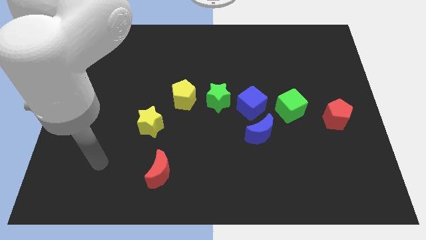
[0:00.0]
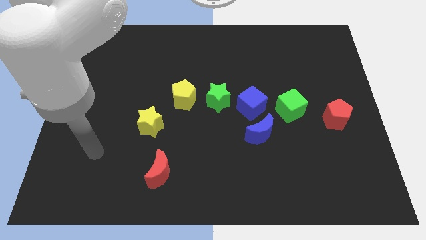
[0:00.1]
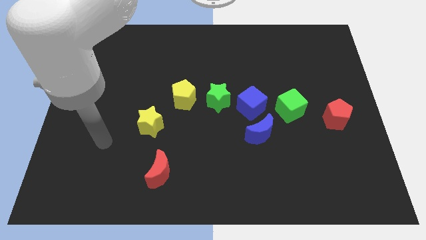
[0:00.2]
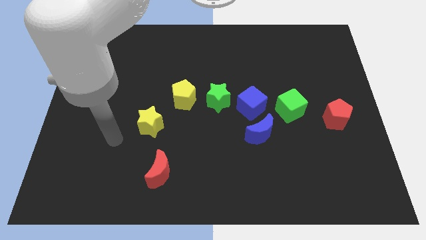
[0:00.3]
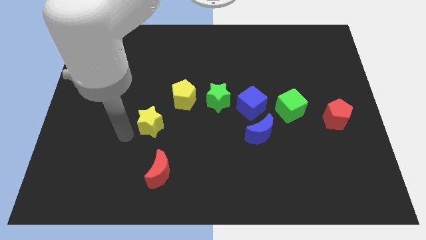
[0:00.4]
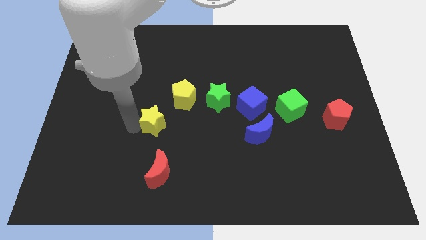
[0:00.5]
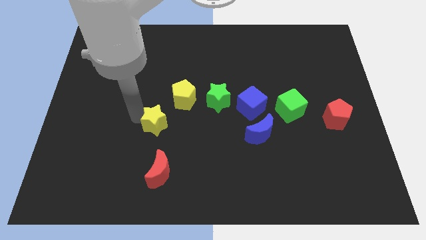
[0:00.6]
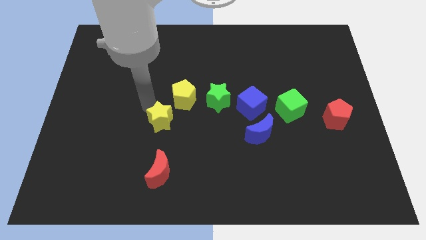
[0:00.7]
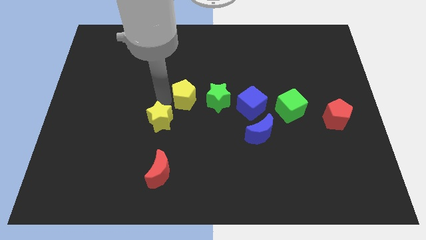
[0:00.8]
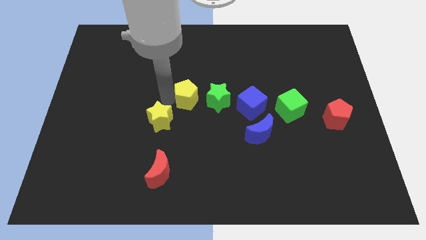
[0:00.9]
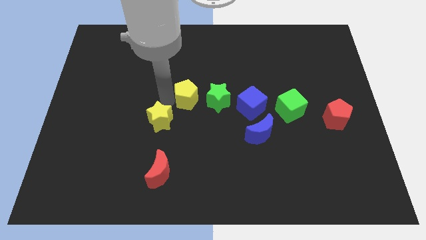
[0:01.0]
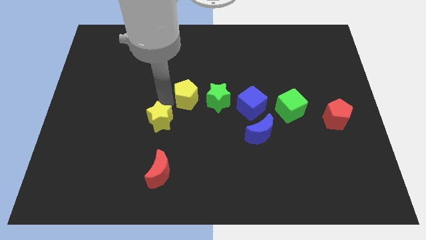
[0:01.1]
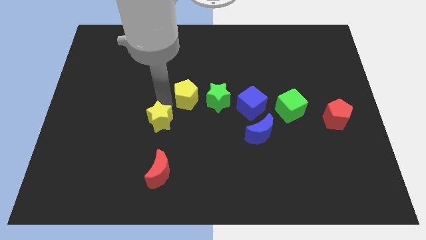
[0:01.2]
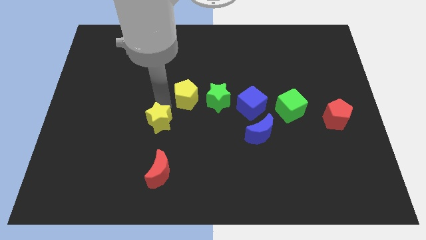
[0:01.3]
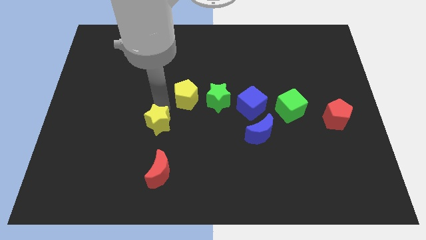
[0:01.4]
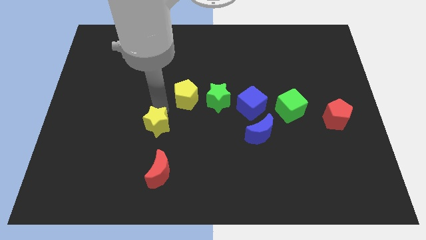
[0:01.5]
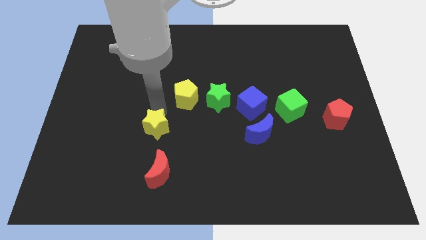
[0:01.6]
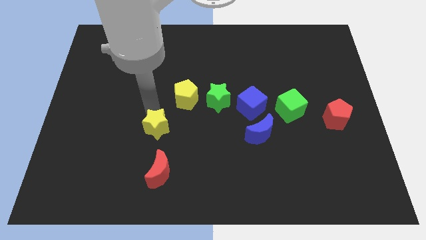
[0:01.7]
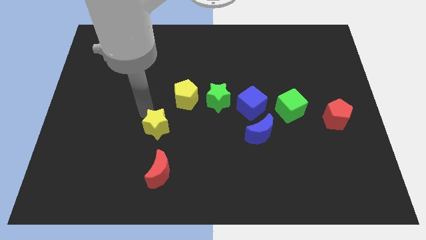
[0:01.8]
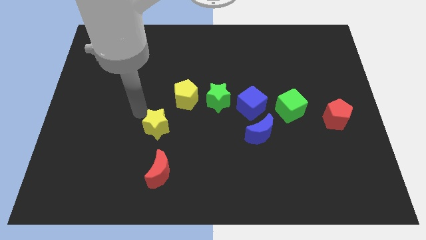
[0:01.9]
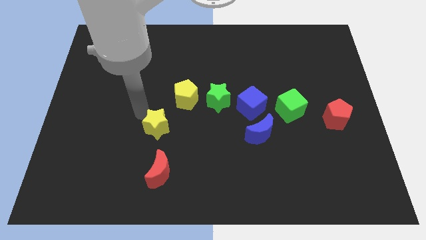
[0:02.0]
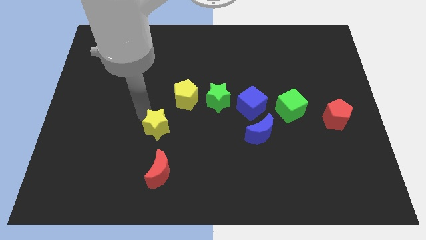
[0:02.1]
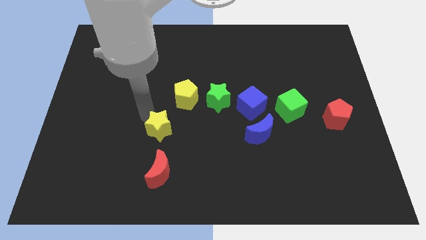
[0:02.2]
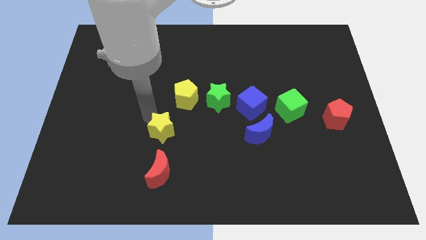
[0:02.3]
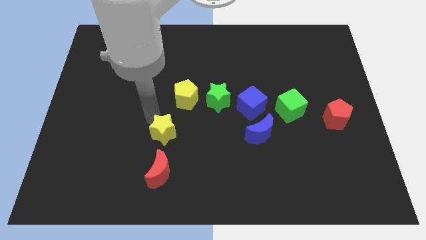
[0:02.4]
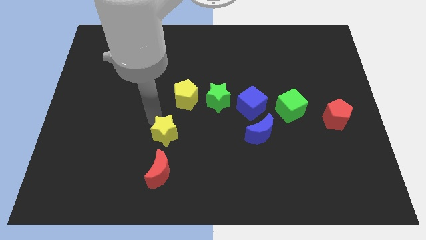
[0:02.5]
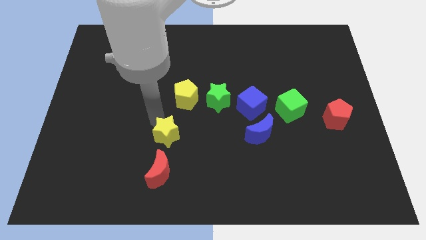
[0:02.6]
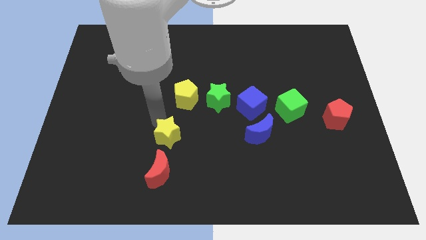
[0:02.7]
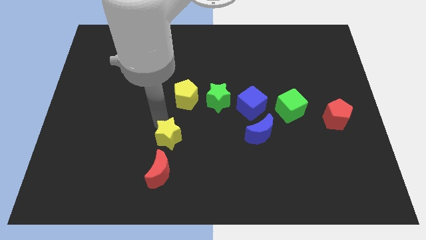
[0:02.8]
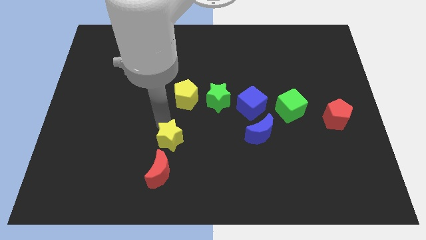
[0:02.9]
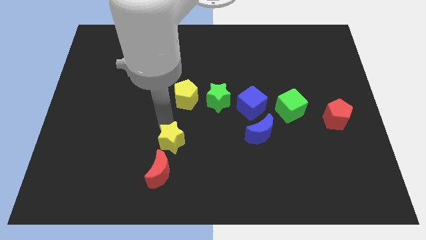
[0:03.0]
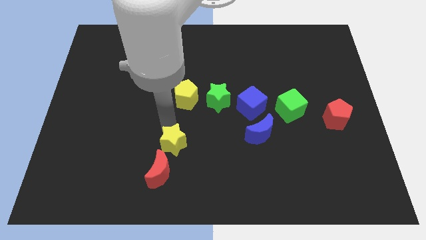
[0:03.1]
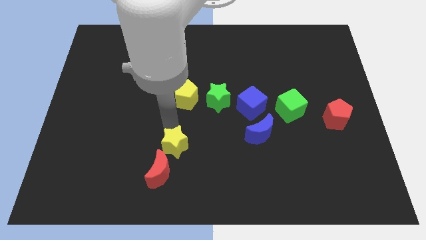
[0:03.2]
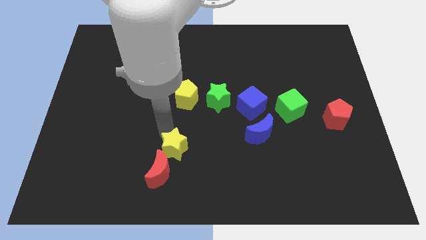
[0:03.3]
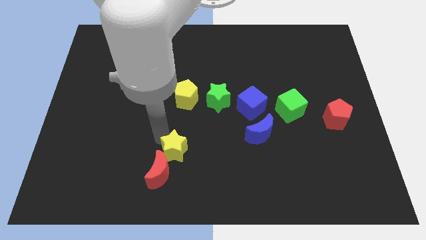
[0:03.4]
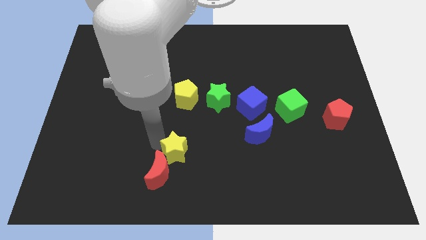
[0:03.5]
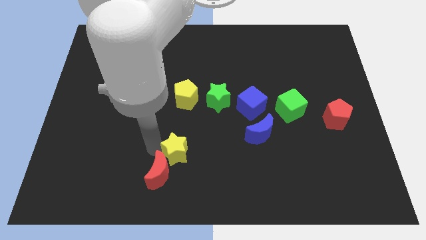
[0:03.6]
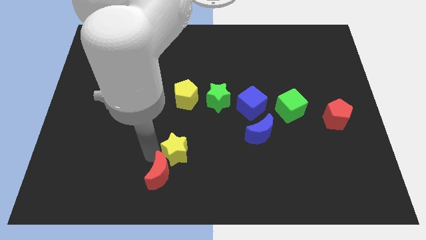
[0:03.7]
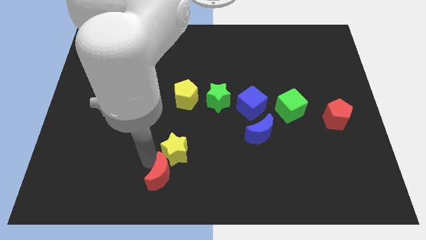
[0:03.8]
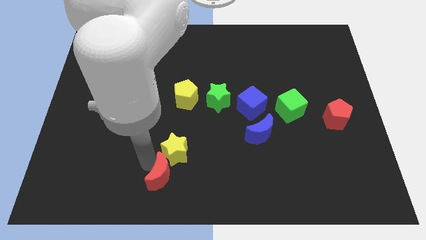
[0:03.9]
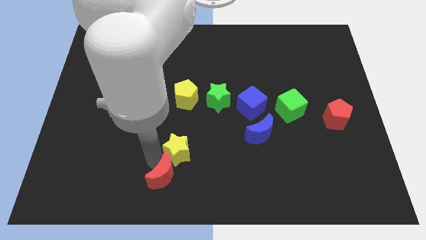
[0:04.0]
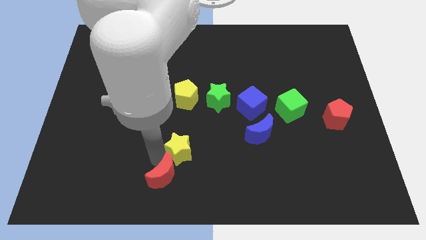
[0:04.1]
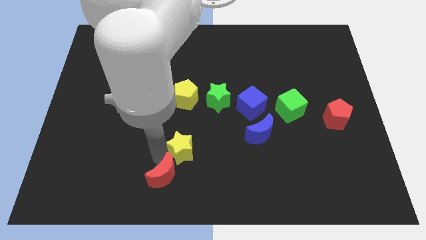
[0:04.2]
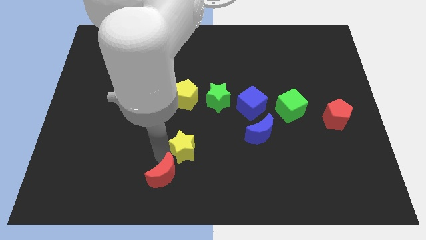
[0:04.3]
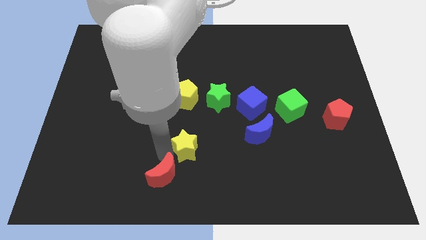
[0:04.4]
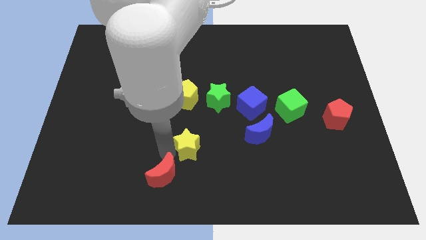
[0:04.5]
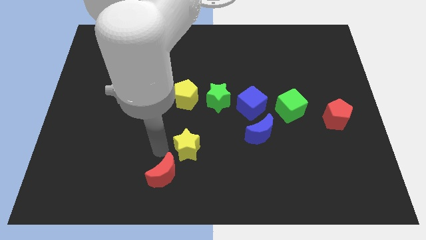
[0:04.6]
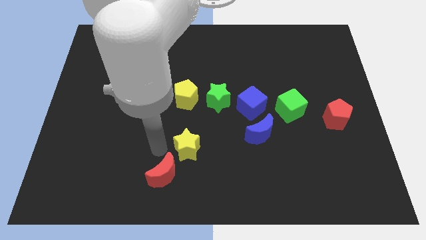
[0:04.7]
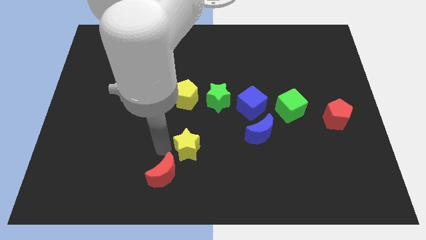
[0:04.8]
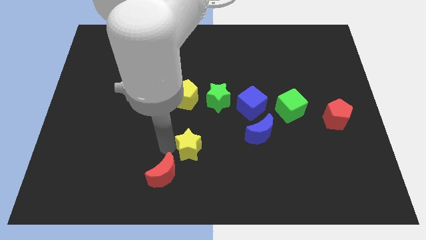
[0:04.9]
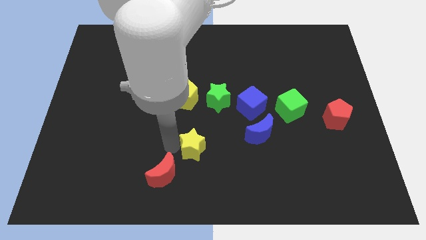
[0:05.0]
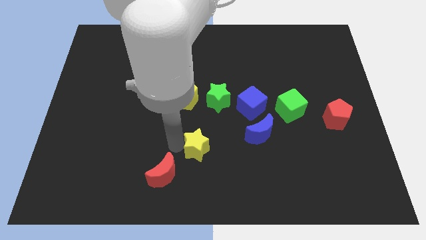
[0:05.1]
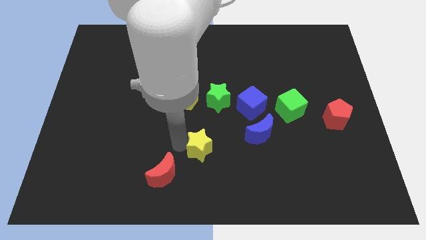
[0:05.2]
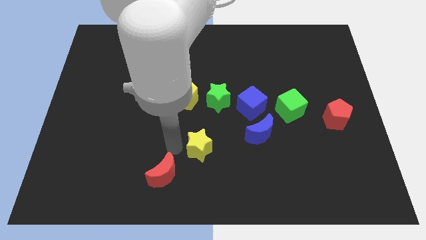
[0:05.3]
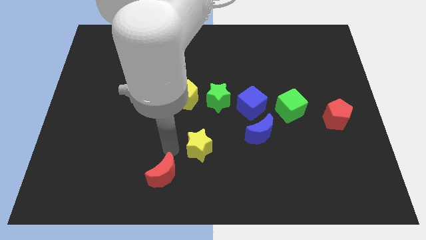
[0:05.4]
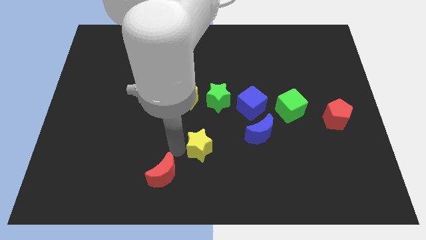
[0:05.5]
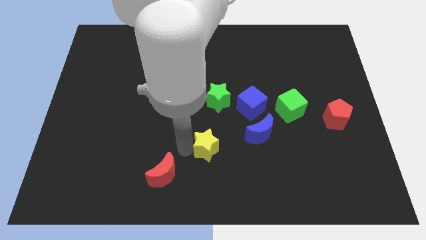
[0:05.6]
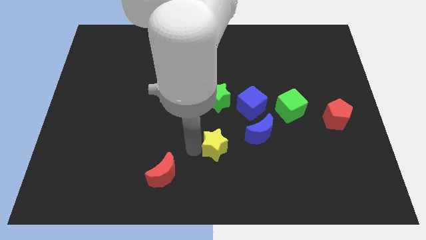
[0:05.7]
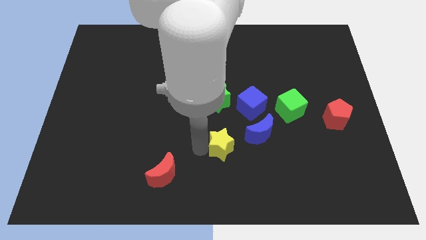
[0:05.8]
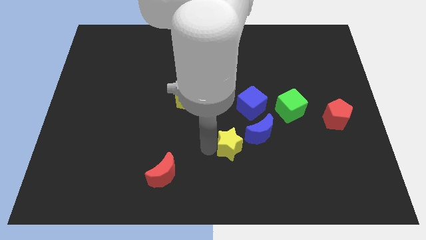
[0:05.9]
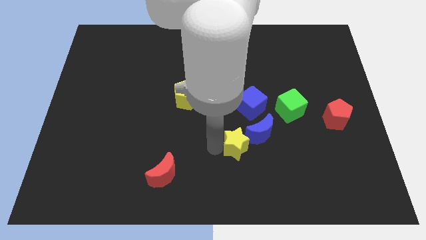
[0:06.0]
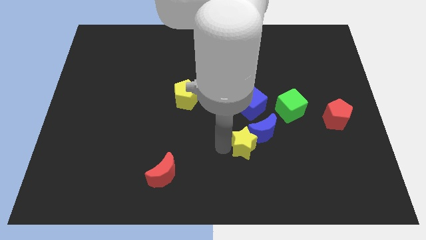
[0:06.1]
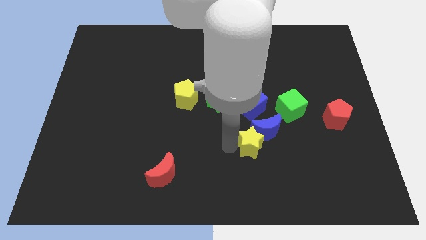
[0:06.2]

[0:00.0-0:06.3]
move the yellow star to the right

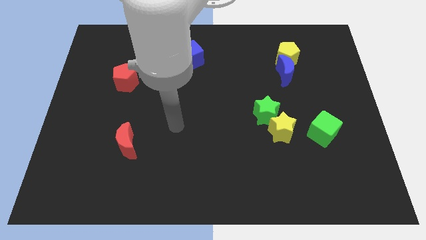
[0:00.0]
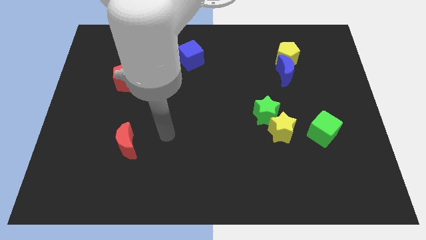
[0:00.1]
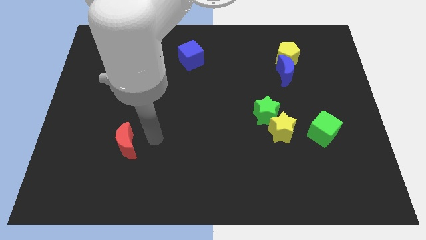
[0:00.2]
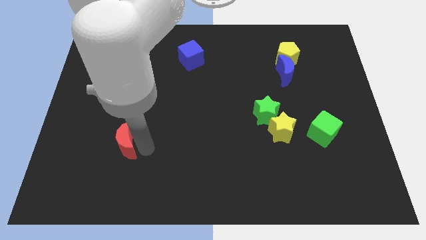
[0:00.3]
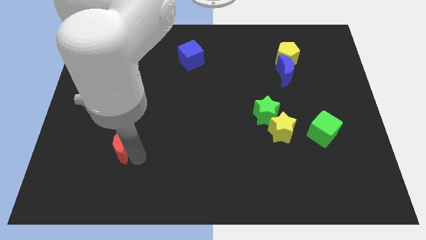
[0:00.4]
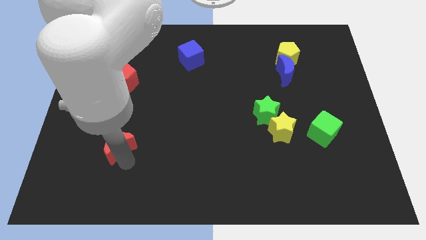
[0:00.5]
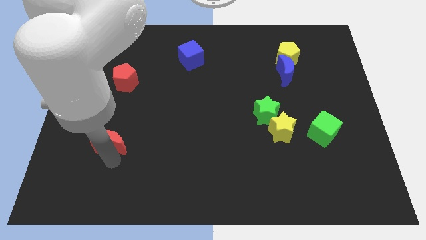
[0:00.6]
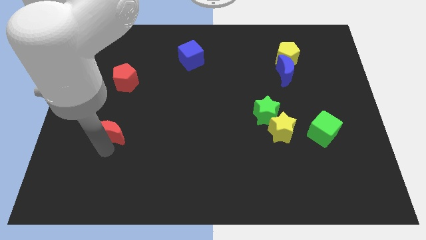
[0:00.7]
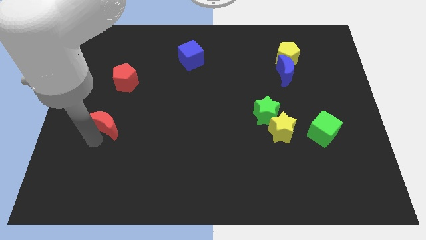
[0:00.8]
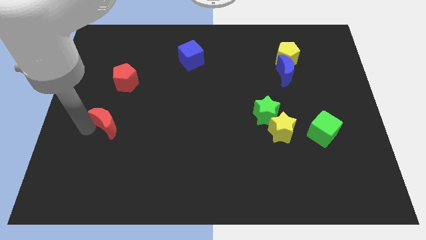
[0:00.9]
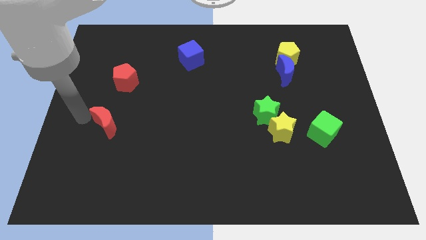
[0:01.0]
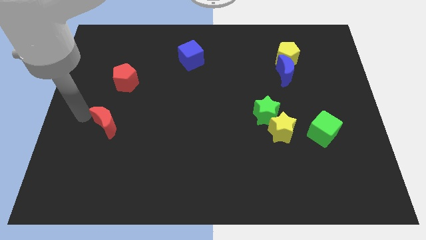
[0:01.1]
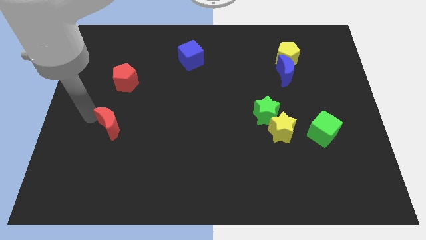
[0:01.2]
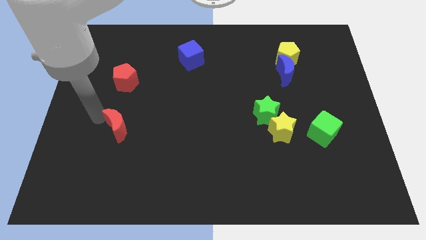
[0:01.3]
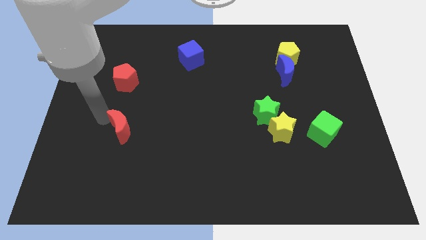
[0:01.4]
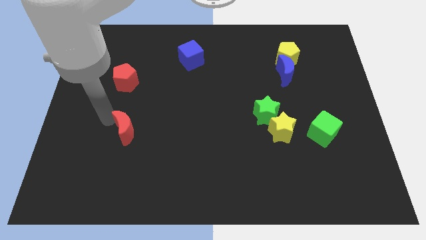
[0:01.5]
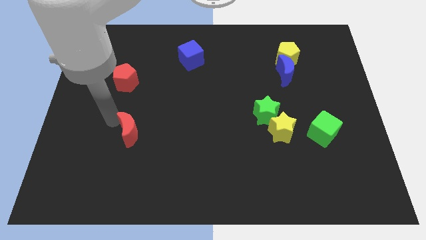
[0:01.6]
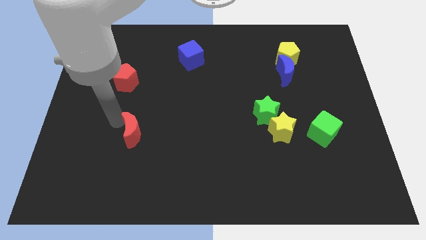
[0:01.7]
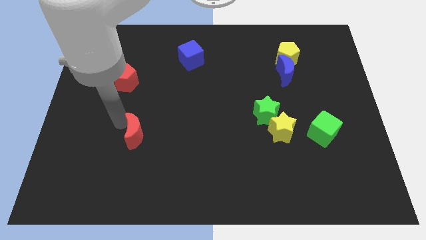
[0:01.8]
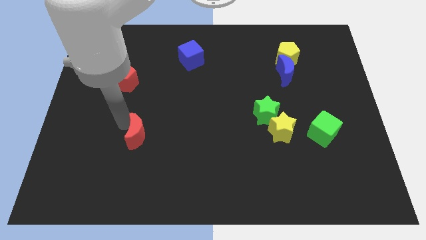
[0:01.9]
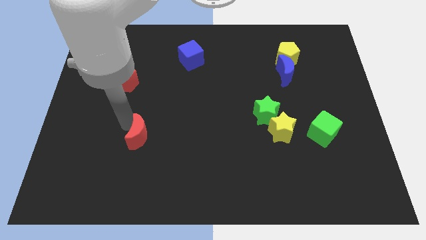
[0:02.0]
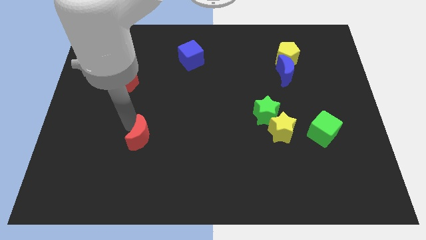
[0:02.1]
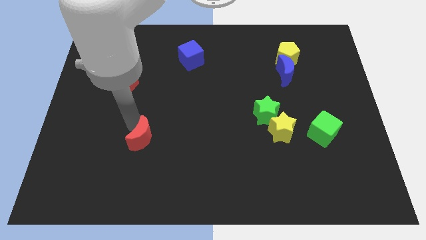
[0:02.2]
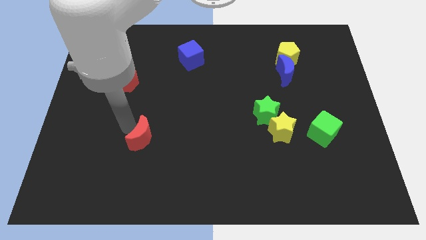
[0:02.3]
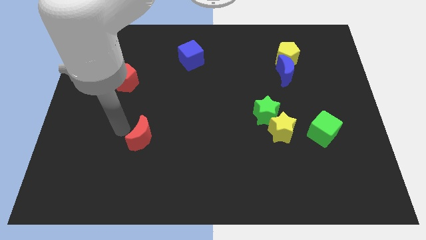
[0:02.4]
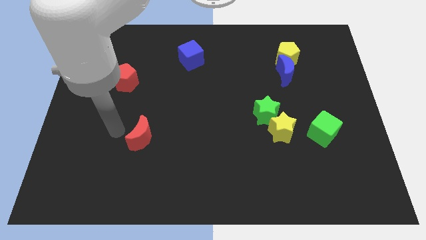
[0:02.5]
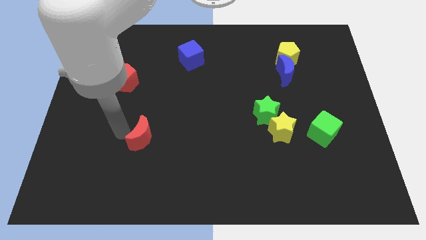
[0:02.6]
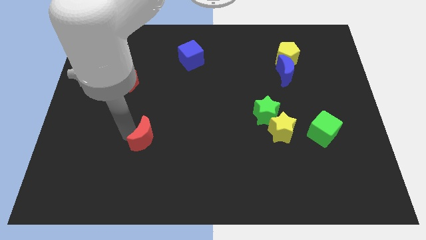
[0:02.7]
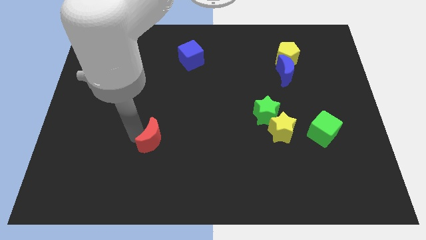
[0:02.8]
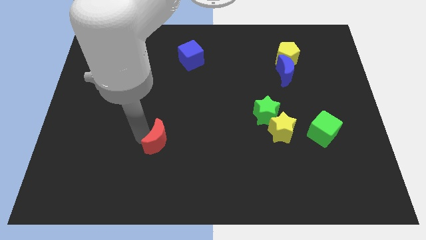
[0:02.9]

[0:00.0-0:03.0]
slightly push the red moon right
